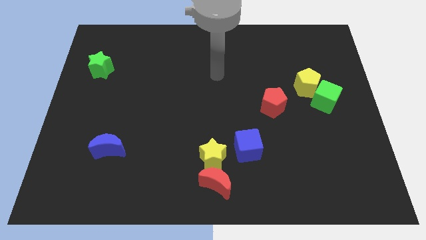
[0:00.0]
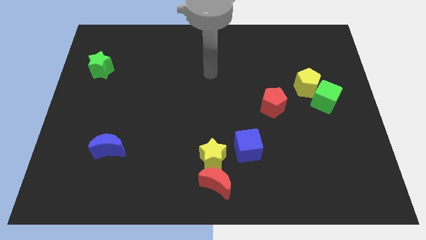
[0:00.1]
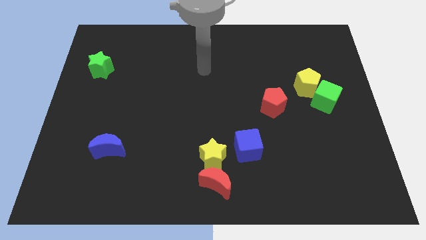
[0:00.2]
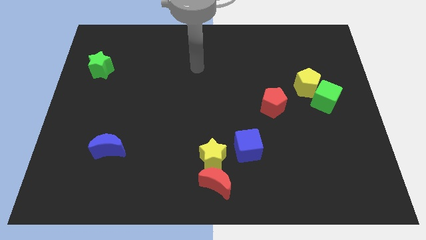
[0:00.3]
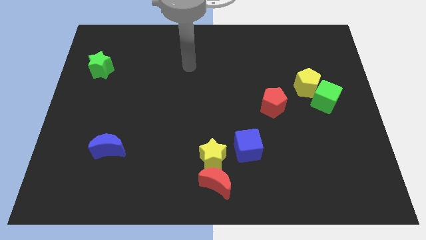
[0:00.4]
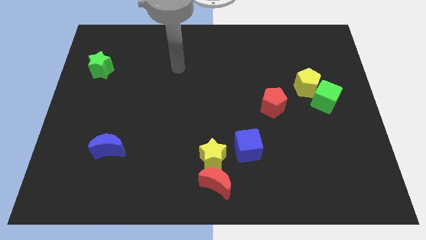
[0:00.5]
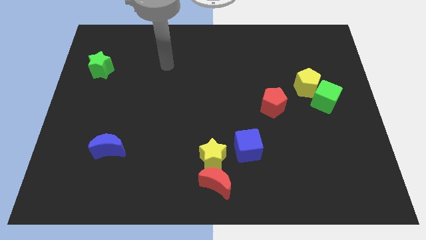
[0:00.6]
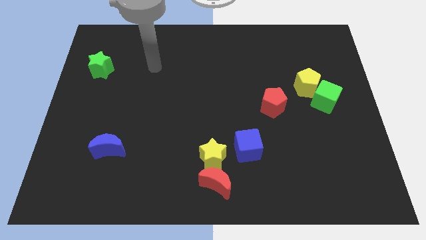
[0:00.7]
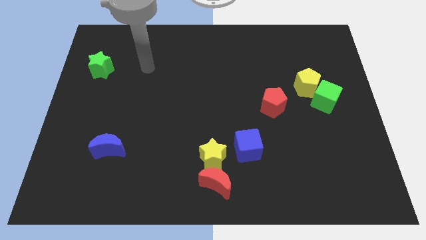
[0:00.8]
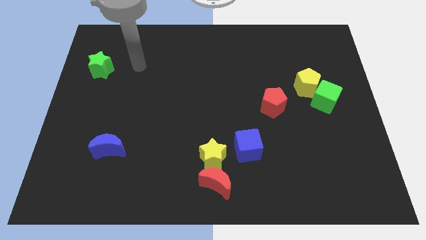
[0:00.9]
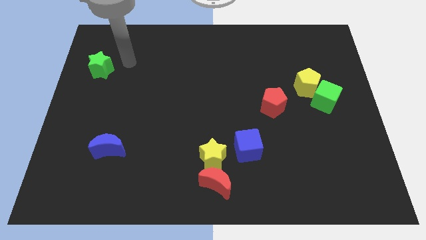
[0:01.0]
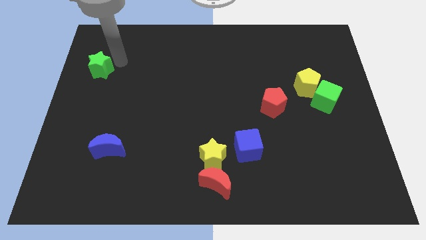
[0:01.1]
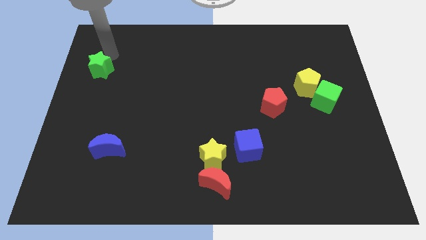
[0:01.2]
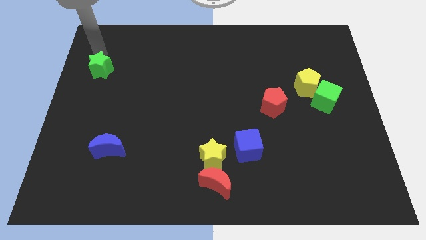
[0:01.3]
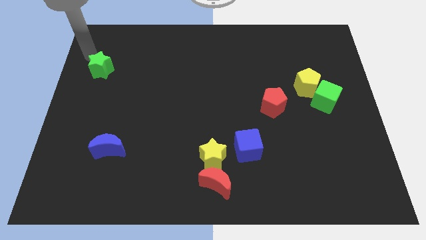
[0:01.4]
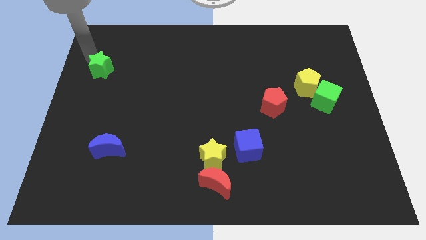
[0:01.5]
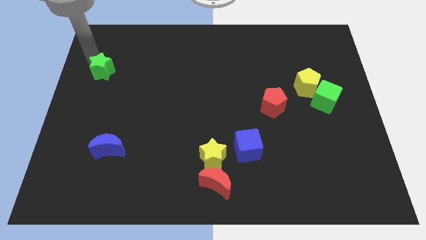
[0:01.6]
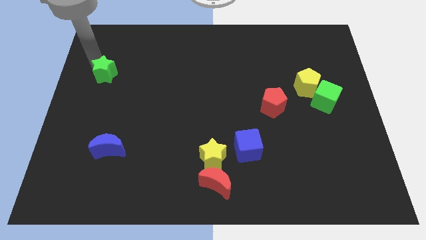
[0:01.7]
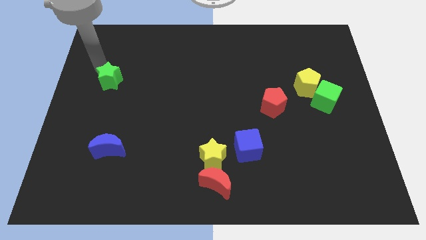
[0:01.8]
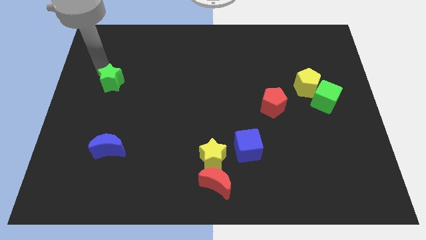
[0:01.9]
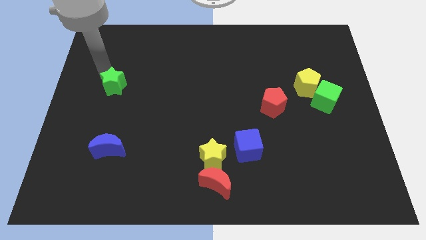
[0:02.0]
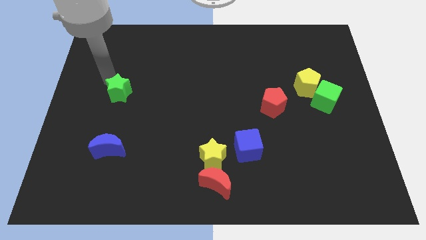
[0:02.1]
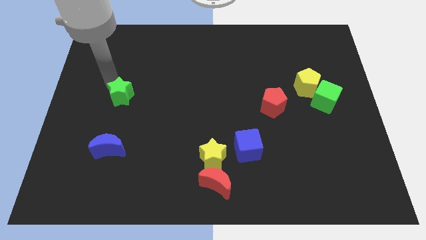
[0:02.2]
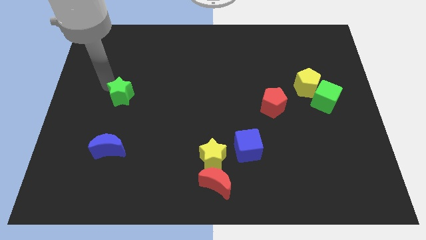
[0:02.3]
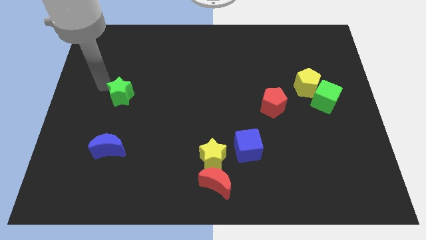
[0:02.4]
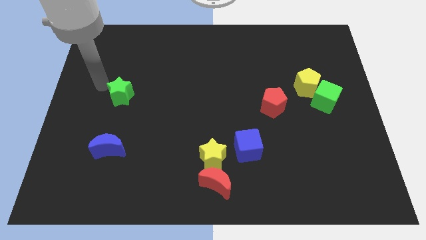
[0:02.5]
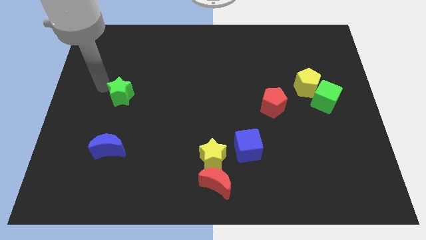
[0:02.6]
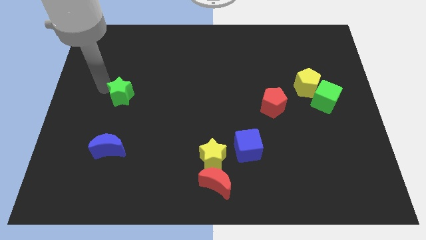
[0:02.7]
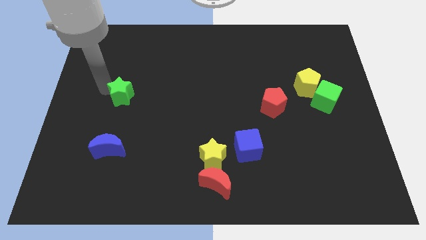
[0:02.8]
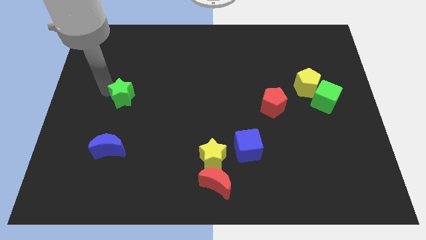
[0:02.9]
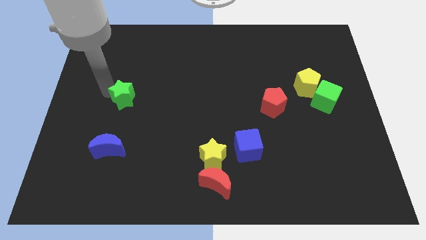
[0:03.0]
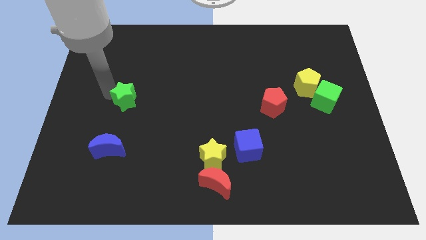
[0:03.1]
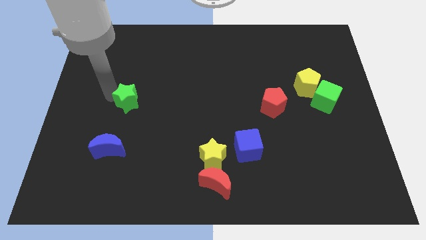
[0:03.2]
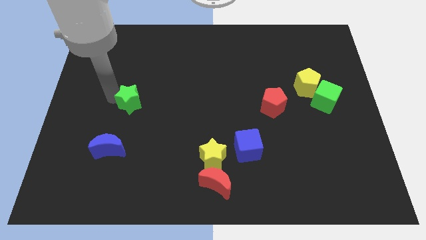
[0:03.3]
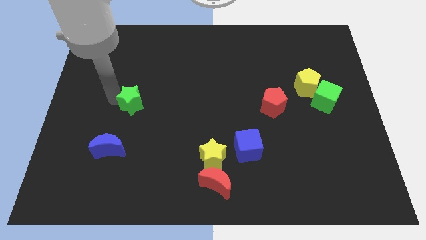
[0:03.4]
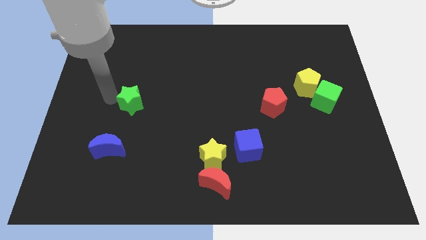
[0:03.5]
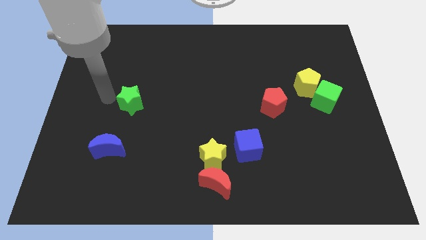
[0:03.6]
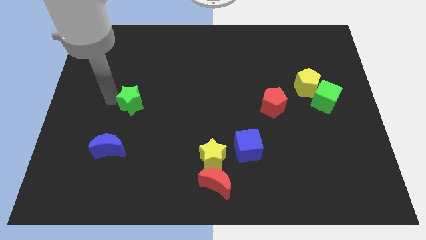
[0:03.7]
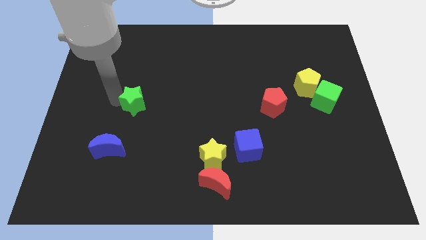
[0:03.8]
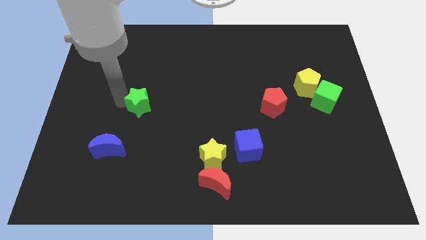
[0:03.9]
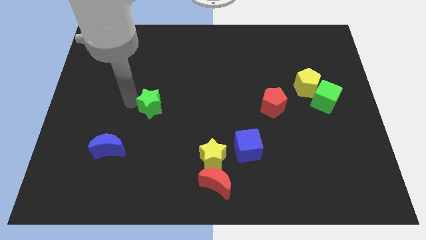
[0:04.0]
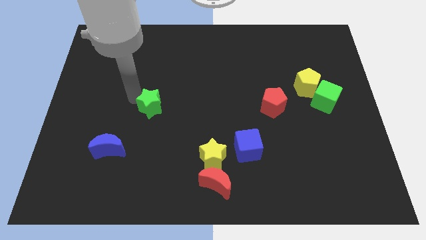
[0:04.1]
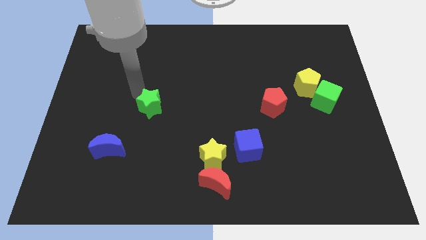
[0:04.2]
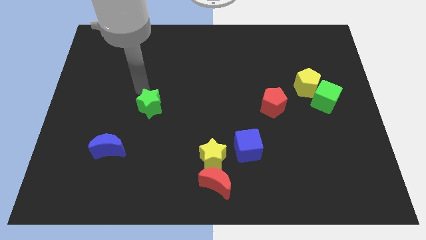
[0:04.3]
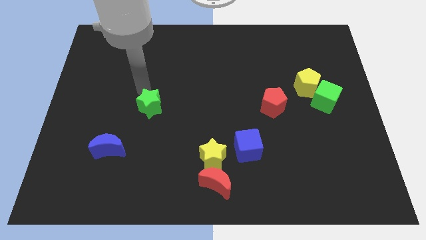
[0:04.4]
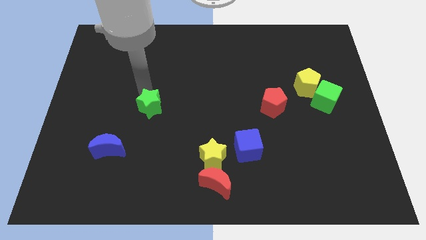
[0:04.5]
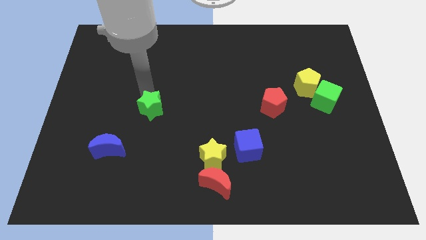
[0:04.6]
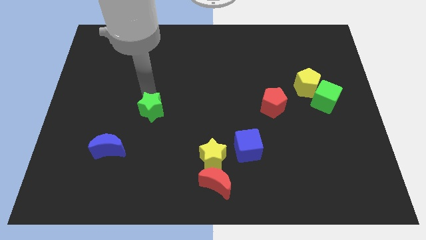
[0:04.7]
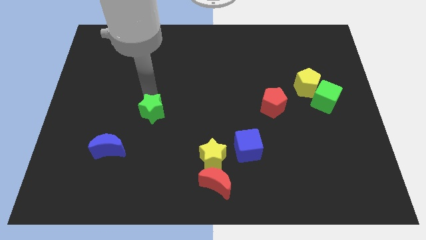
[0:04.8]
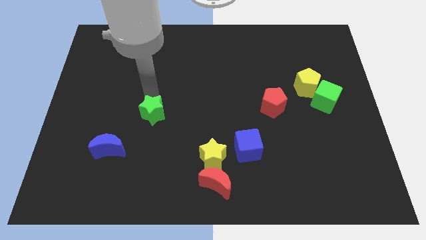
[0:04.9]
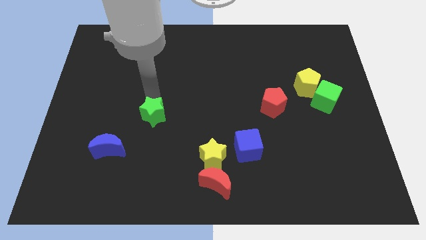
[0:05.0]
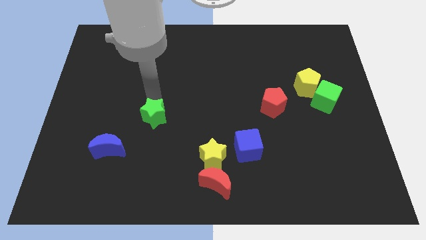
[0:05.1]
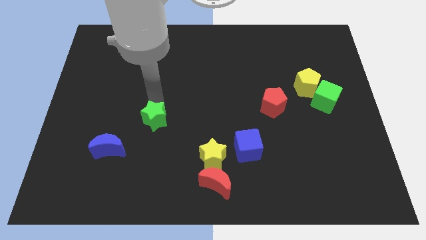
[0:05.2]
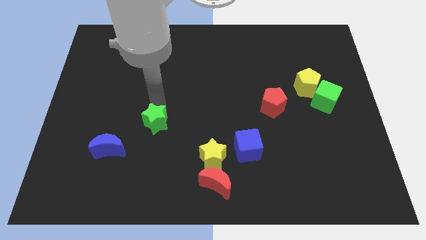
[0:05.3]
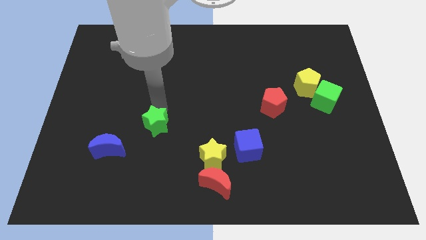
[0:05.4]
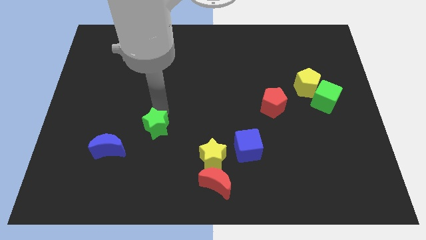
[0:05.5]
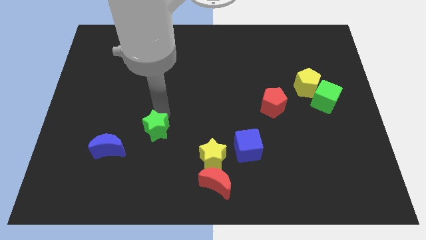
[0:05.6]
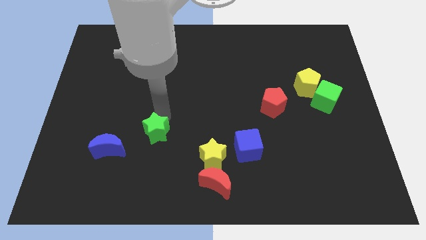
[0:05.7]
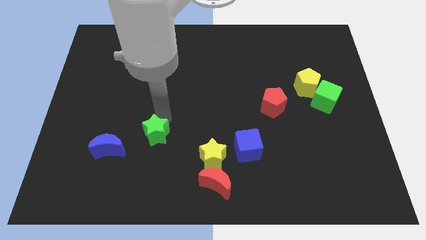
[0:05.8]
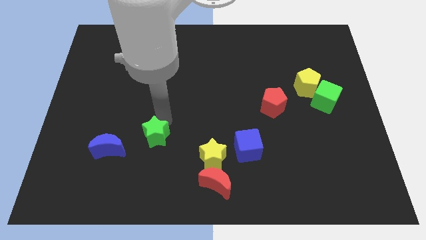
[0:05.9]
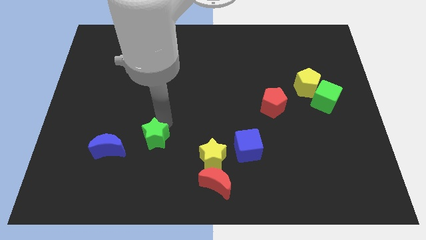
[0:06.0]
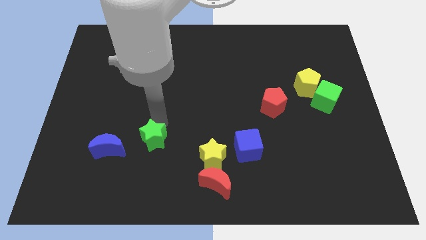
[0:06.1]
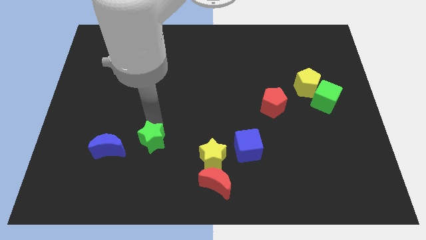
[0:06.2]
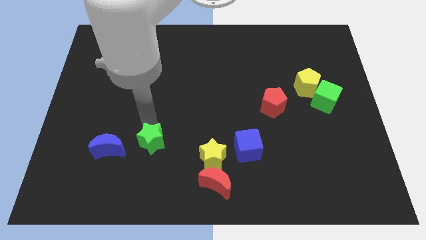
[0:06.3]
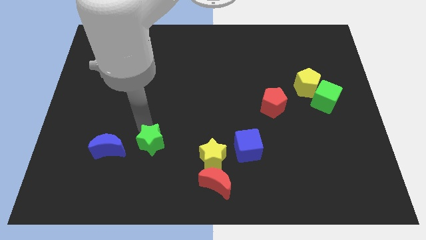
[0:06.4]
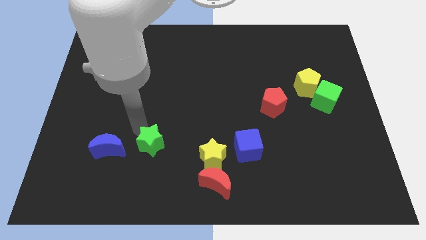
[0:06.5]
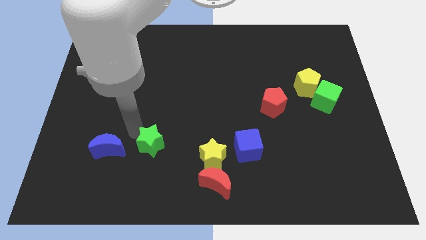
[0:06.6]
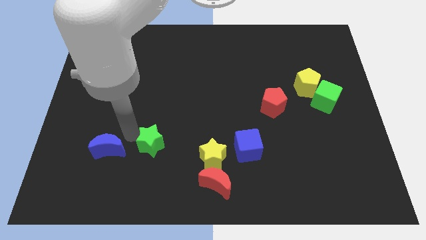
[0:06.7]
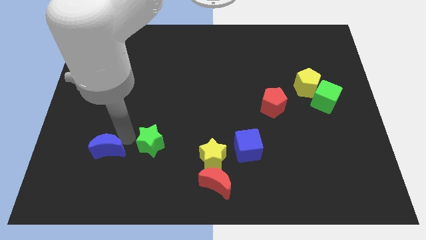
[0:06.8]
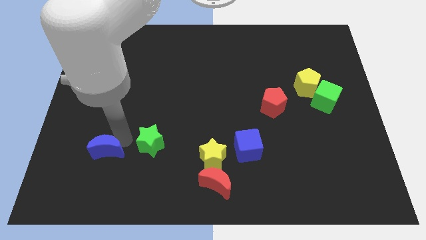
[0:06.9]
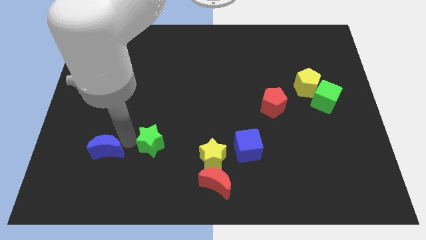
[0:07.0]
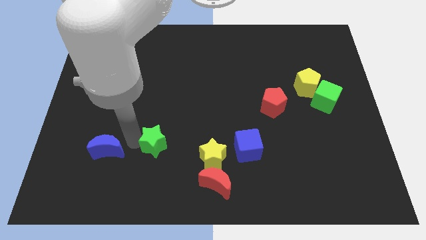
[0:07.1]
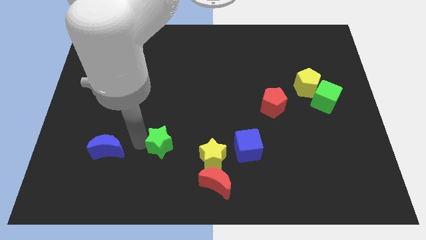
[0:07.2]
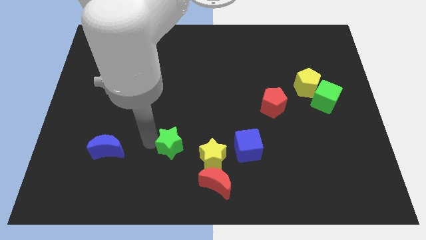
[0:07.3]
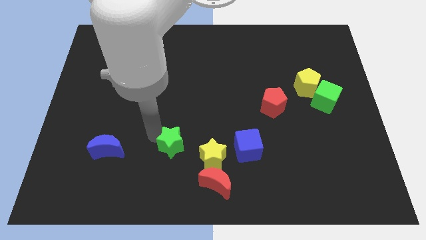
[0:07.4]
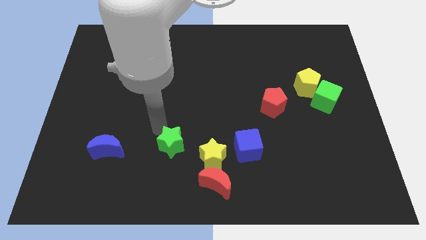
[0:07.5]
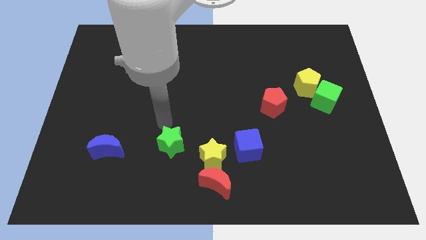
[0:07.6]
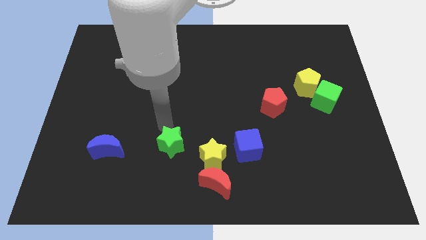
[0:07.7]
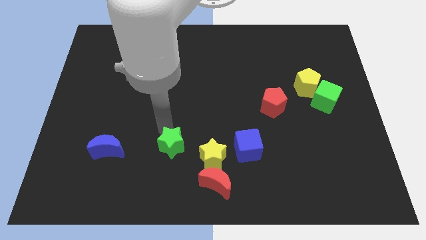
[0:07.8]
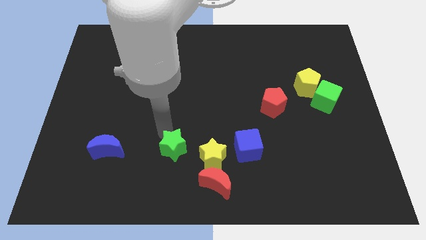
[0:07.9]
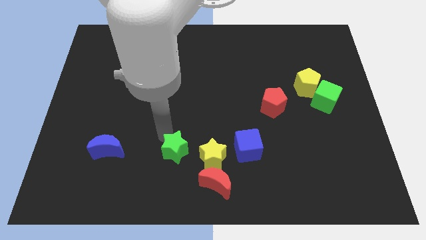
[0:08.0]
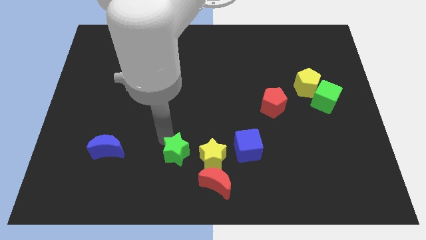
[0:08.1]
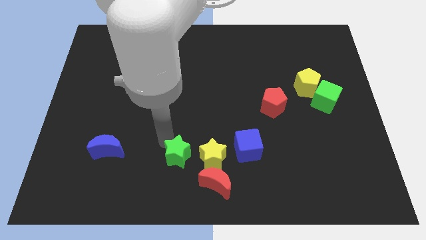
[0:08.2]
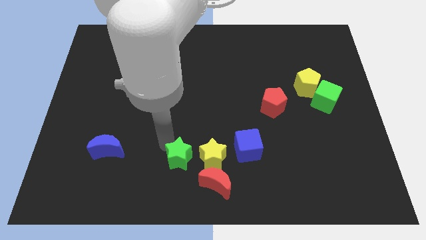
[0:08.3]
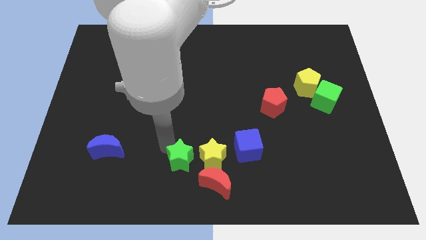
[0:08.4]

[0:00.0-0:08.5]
push the green star to the bottom
